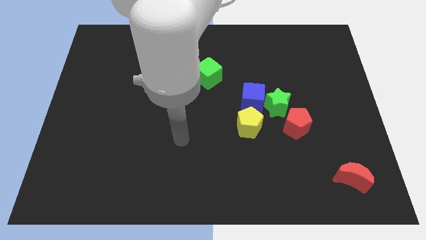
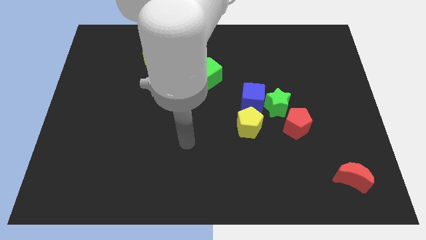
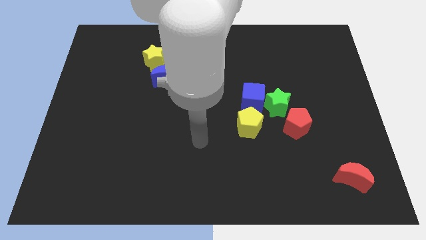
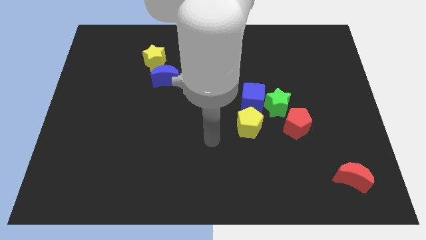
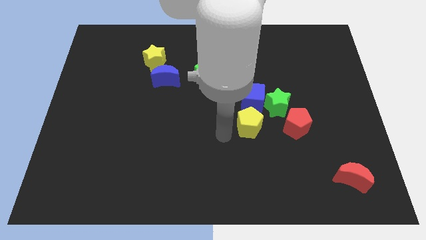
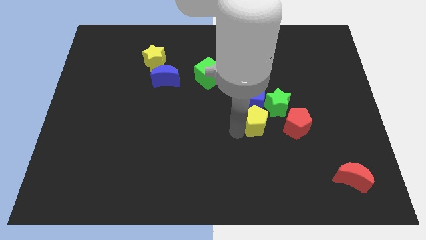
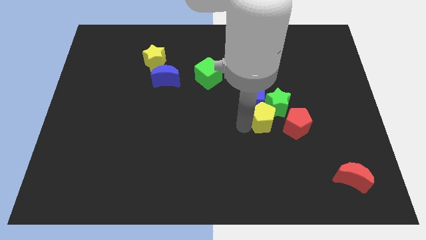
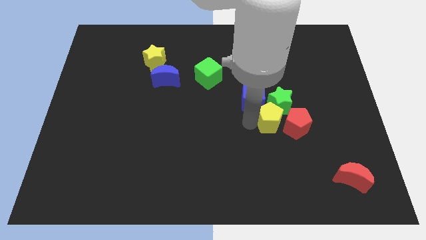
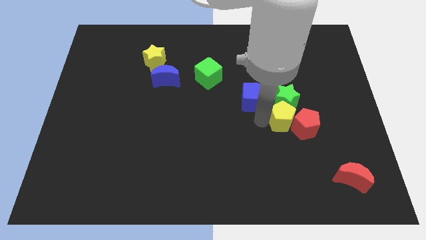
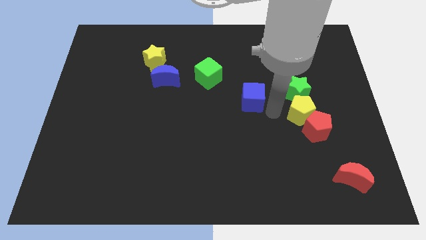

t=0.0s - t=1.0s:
pull the blue cube apart from the green star and yellow pentagon

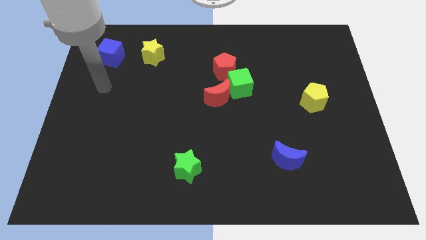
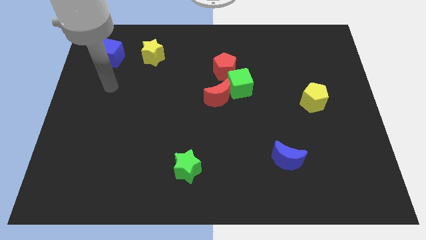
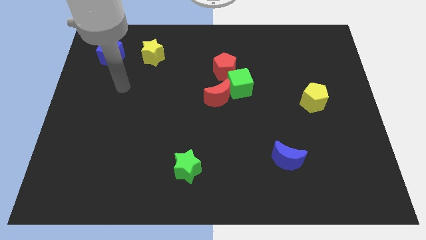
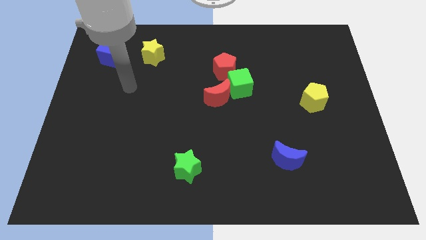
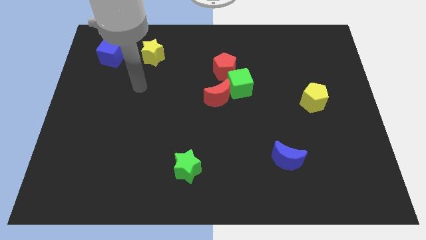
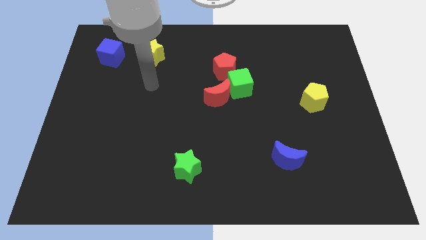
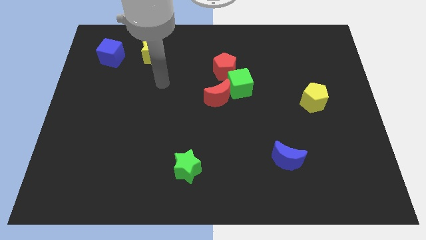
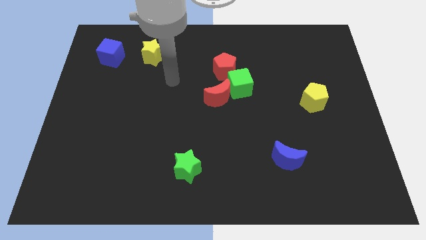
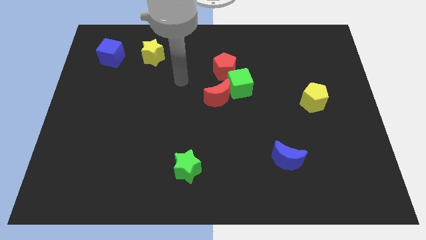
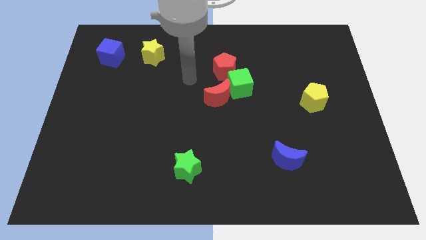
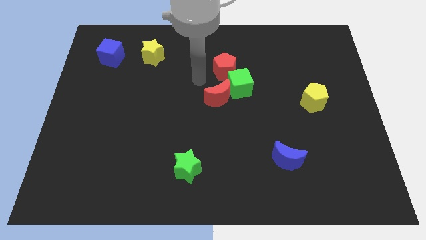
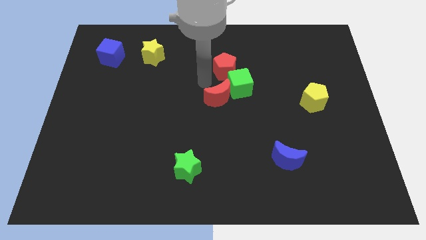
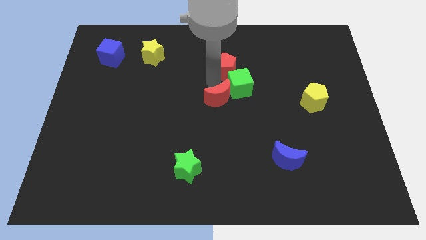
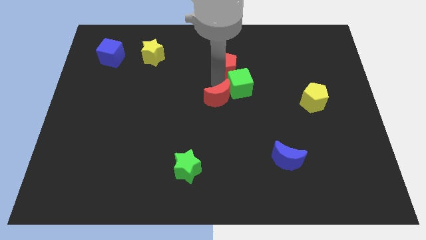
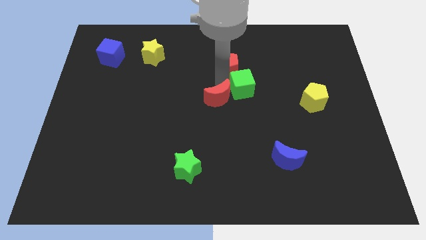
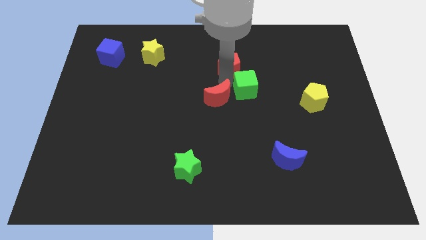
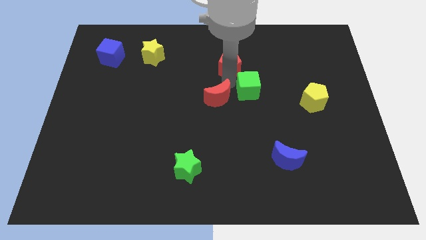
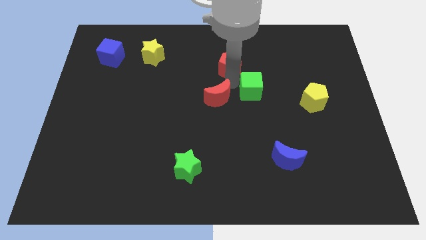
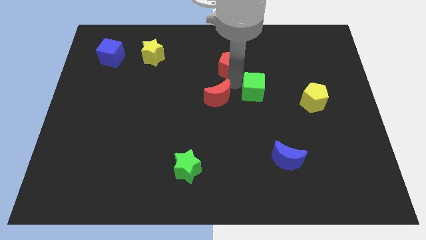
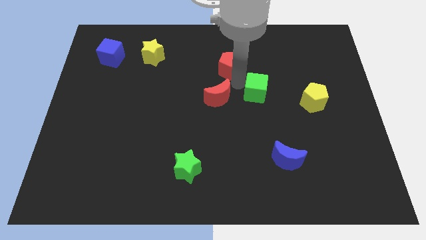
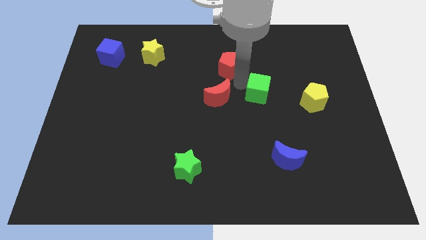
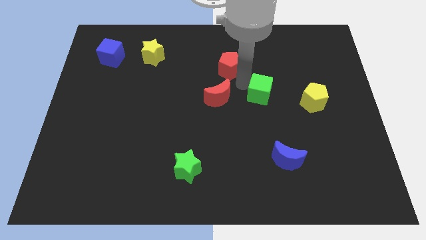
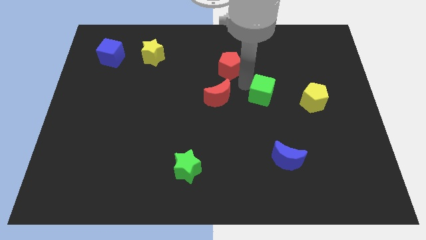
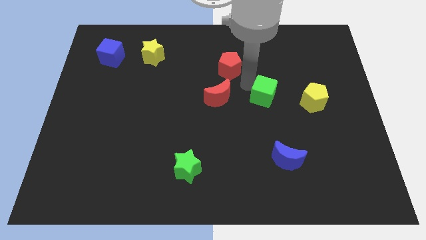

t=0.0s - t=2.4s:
separate the green cube from the red moon and red pentagon

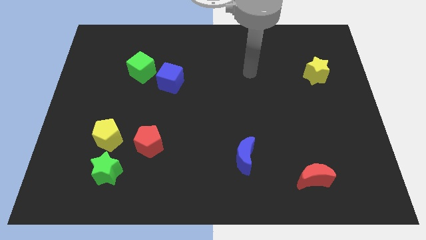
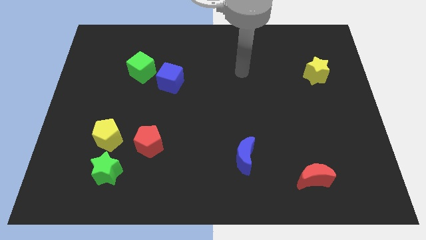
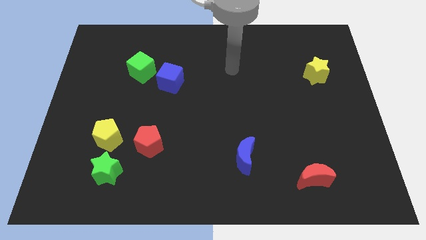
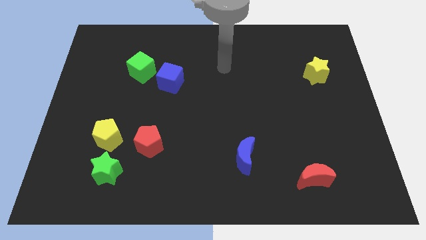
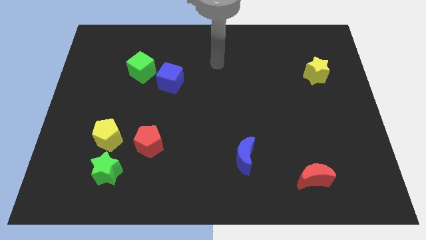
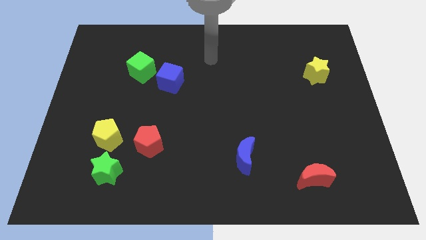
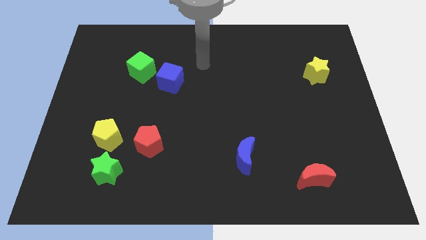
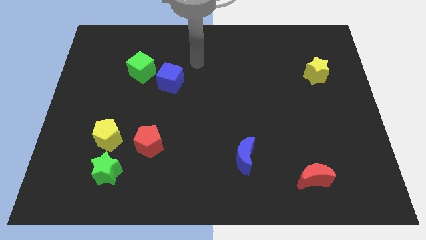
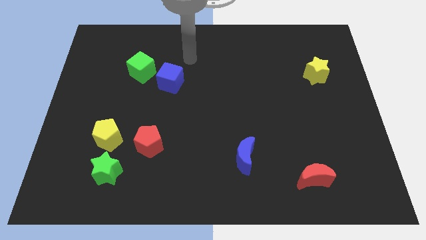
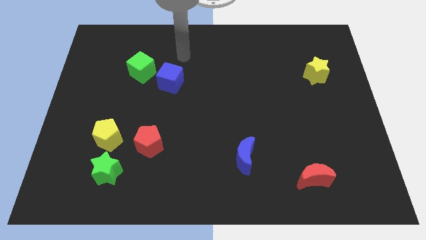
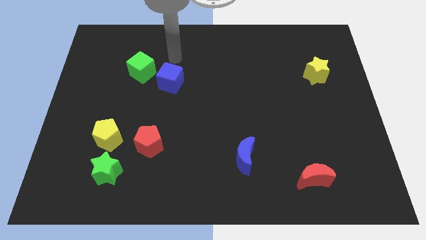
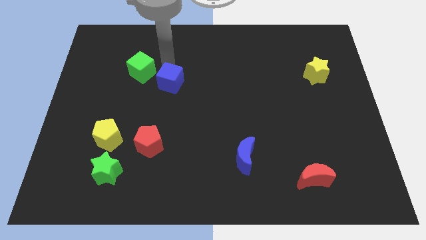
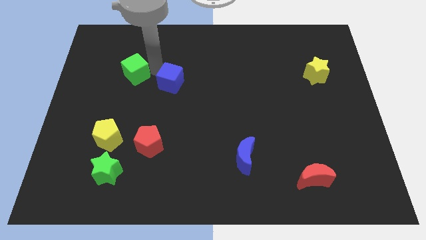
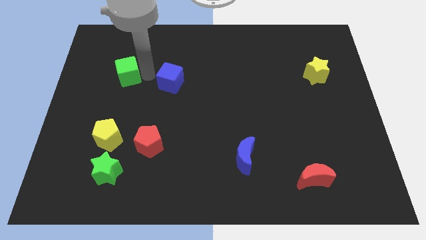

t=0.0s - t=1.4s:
pull the blue cube apart from the green cube

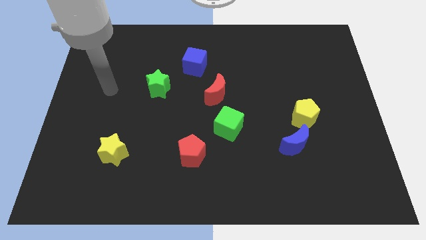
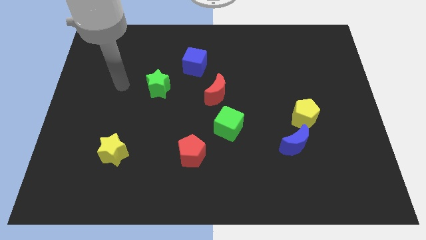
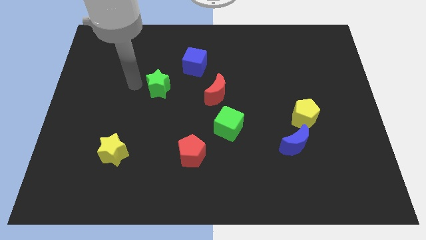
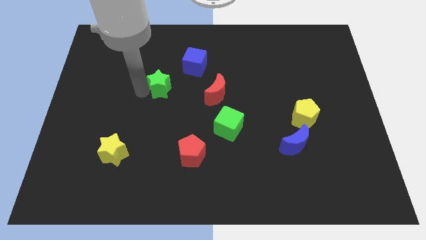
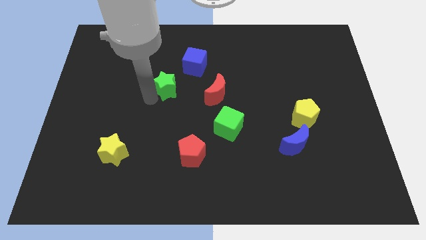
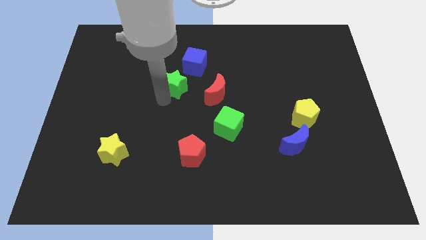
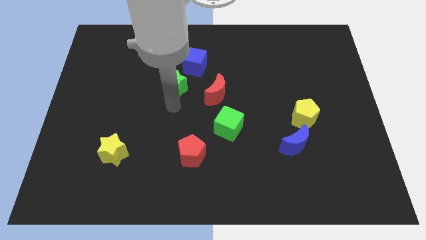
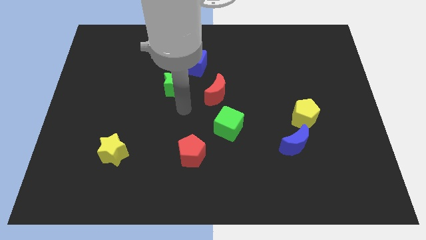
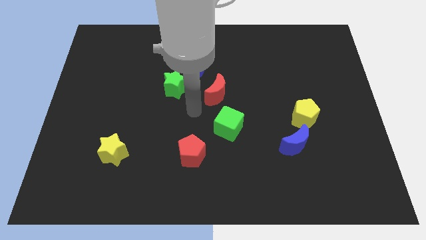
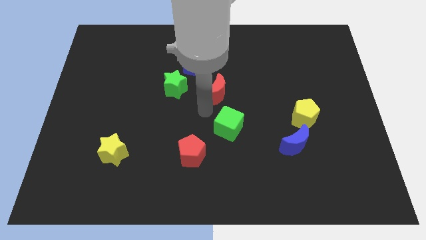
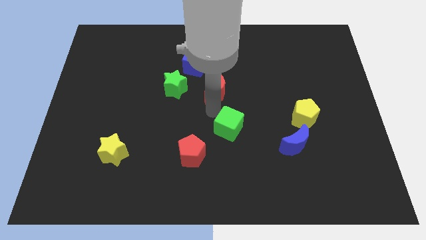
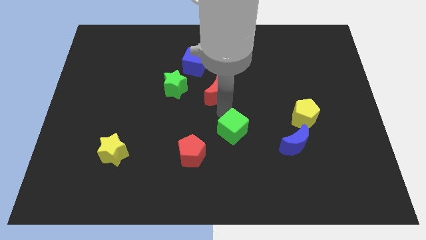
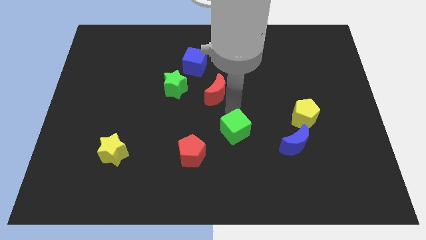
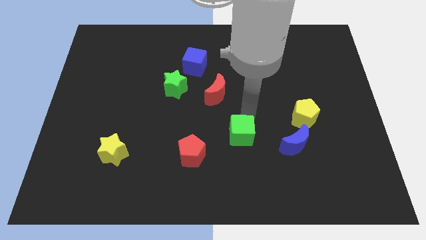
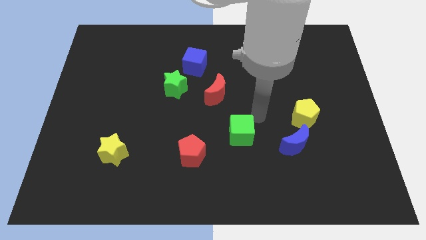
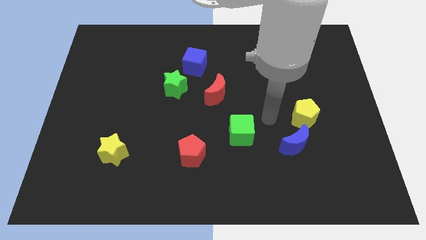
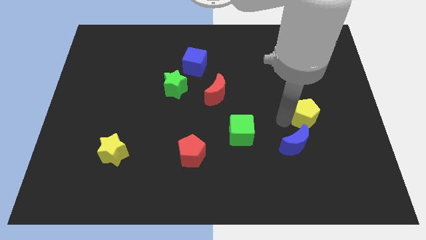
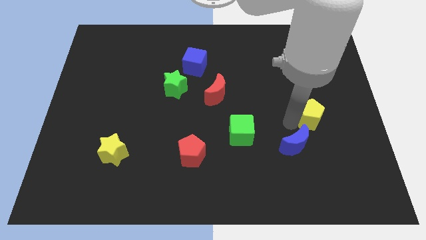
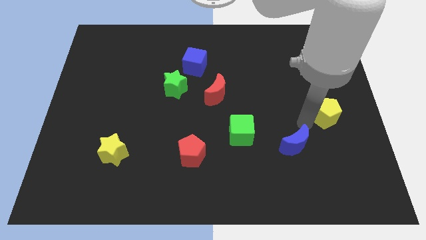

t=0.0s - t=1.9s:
move the blue moon away from the yellow pentagon

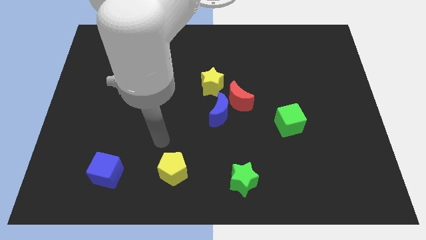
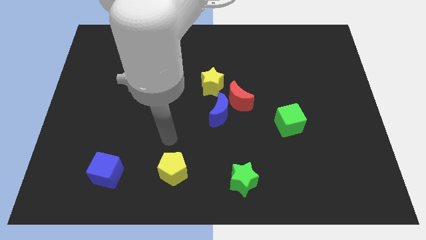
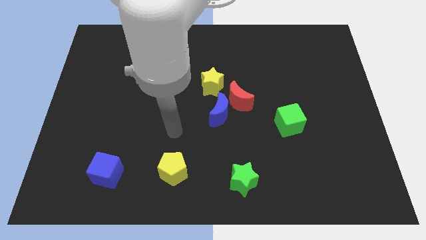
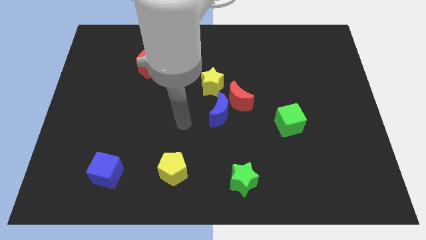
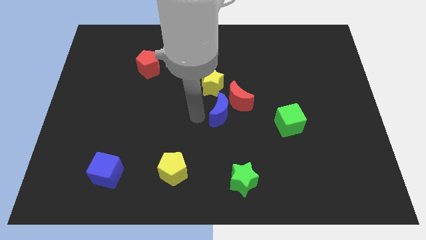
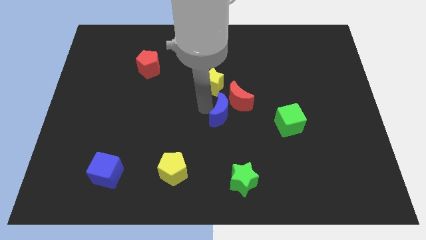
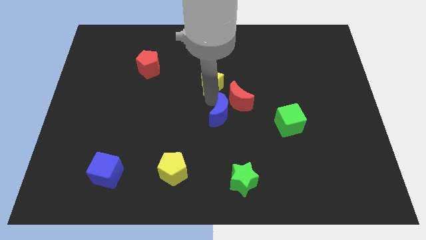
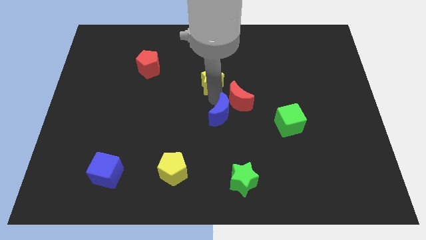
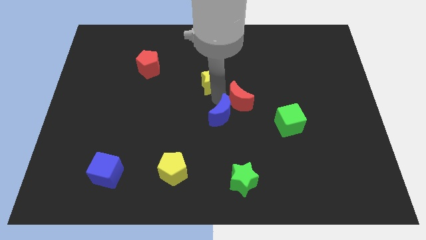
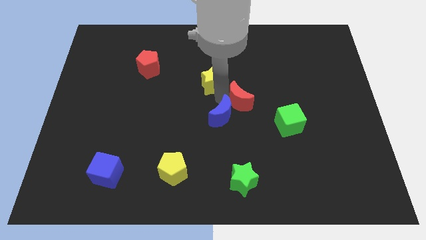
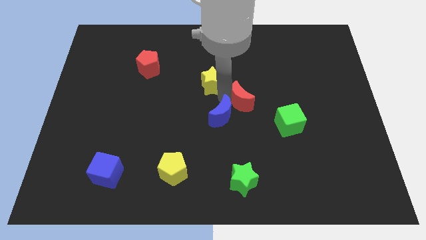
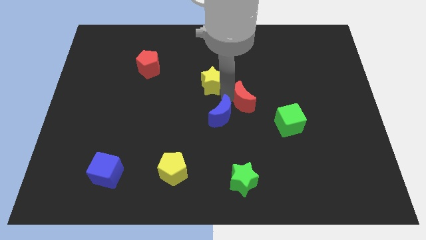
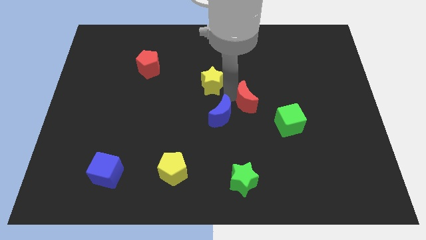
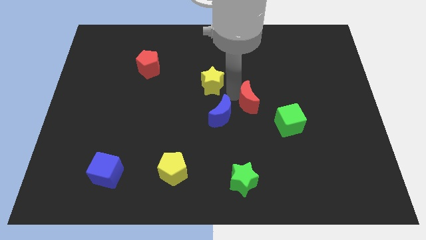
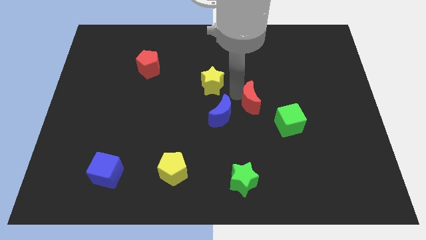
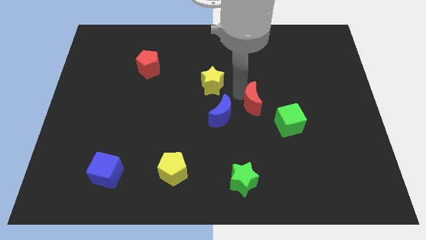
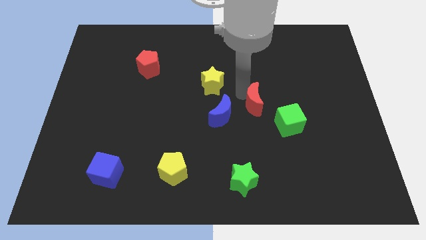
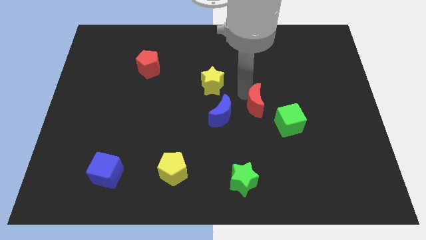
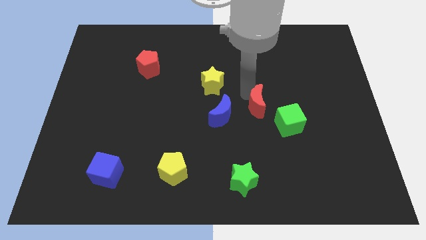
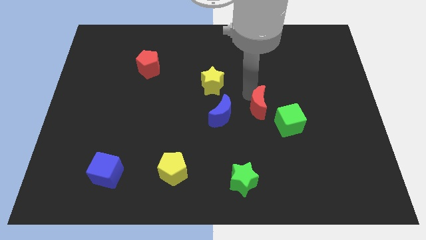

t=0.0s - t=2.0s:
pull the red moon apart from the blue moon and yellow star

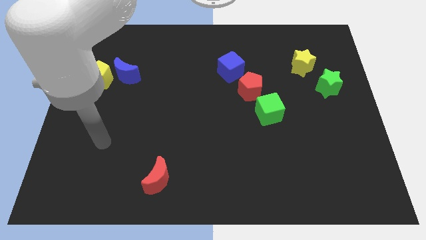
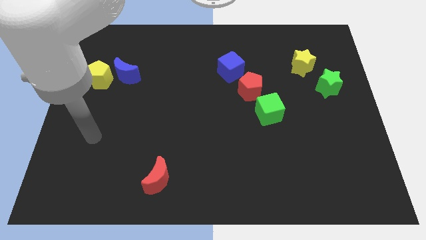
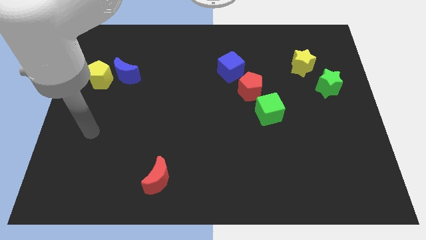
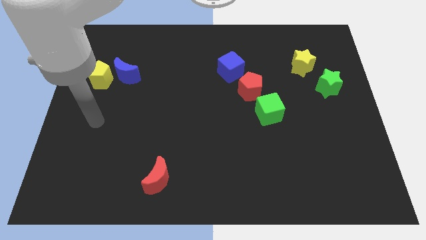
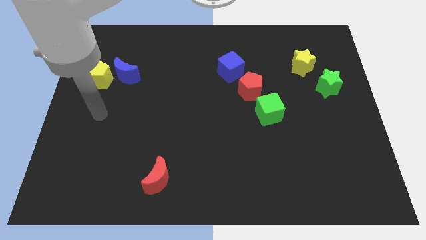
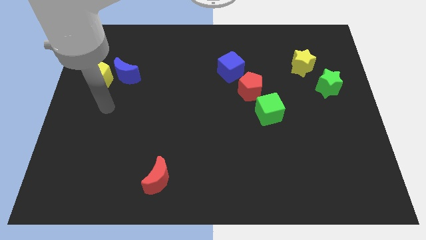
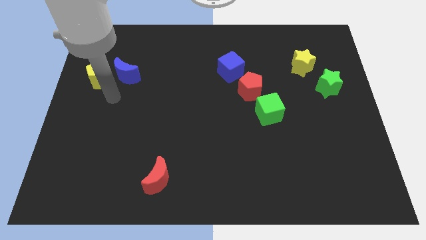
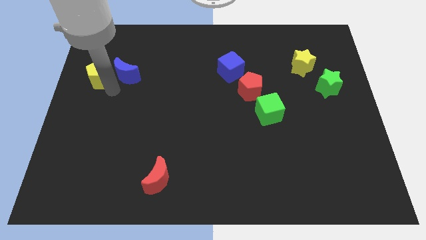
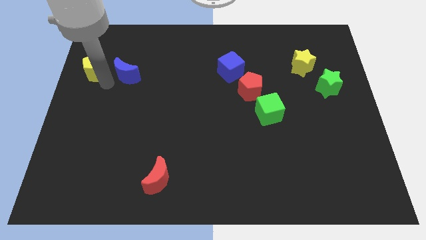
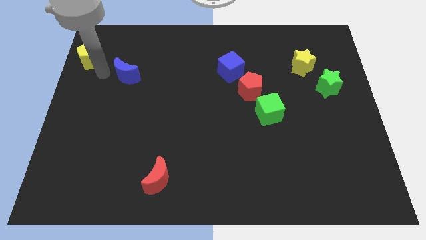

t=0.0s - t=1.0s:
separate the blue moon from the yellow pentagon
